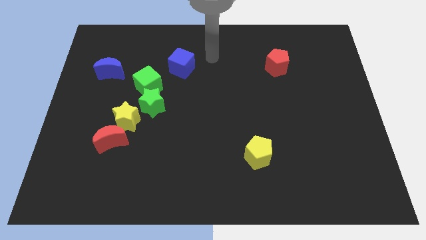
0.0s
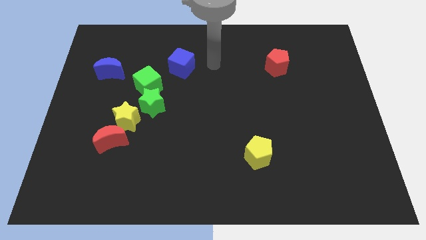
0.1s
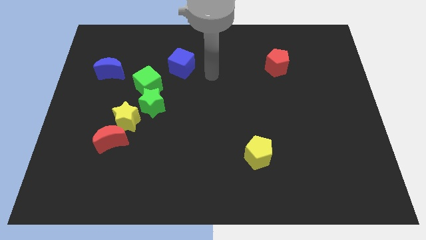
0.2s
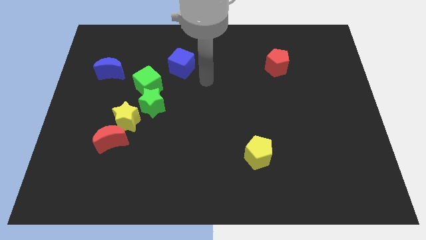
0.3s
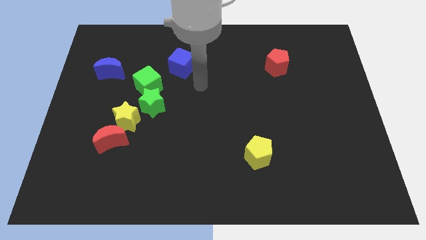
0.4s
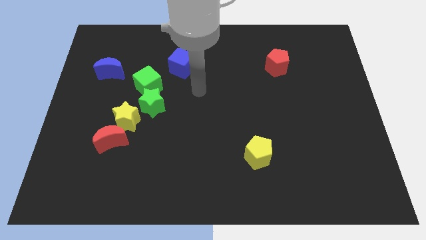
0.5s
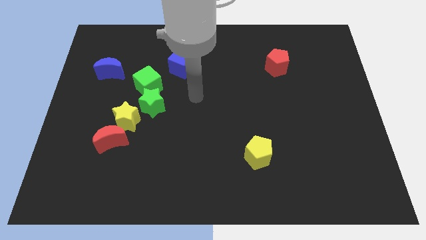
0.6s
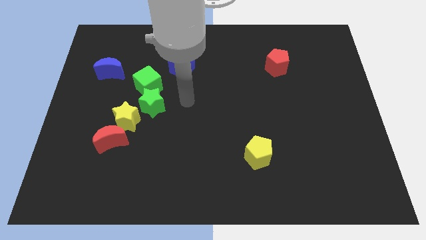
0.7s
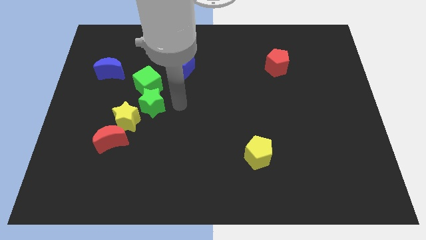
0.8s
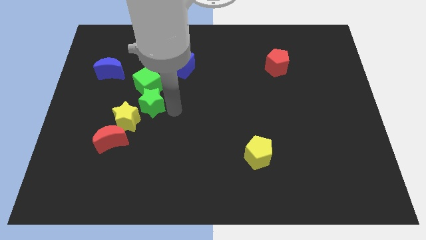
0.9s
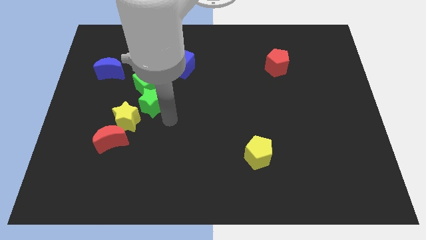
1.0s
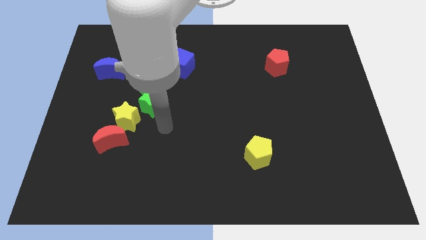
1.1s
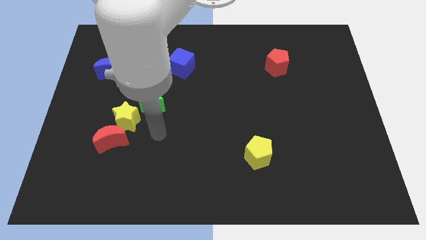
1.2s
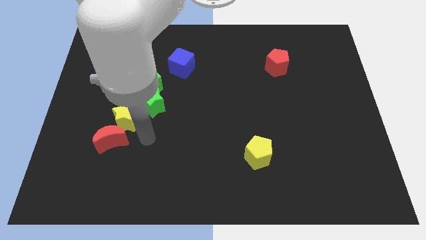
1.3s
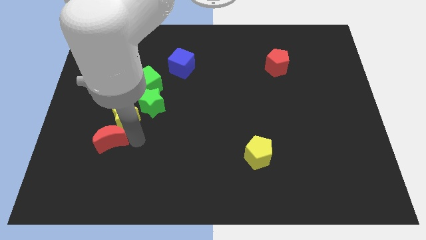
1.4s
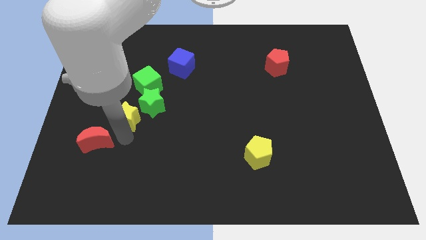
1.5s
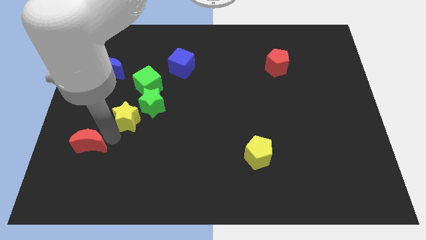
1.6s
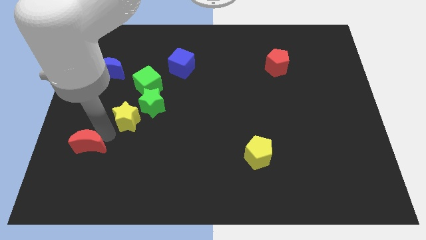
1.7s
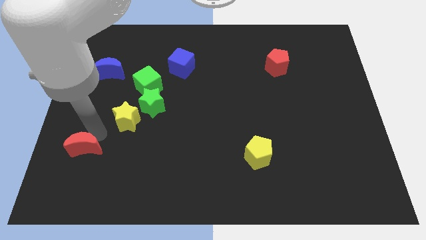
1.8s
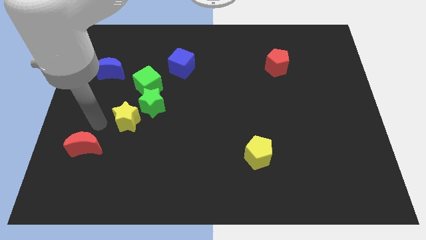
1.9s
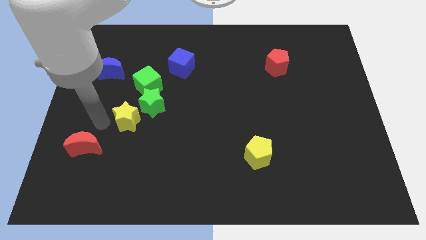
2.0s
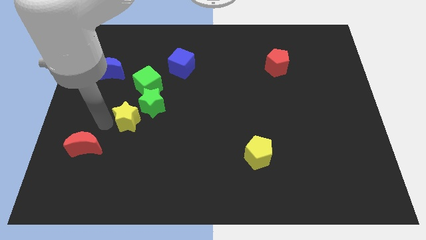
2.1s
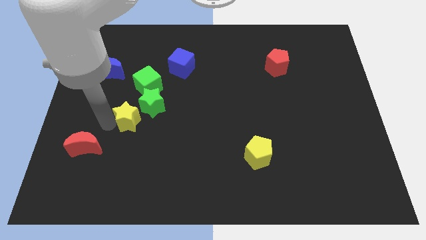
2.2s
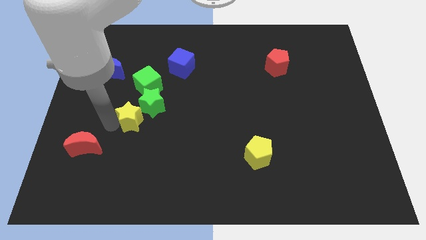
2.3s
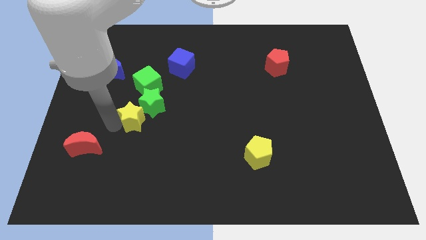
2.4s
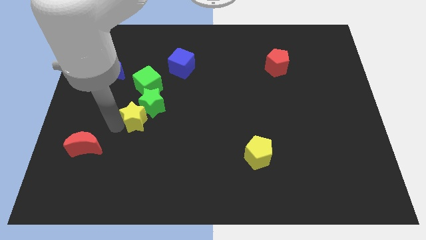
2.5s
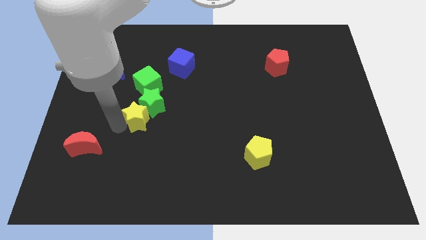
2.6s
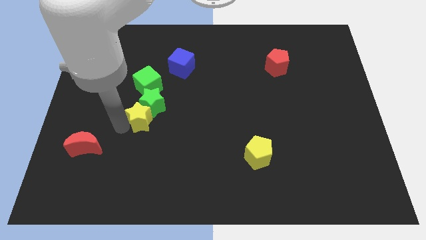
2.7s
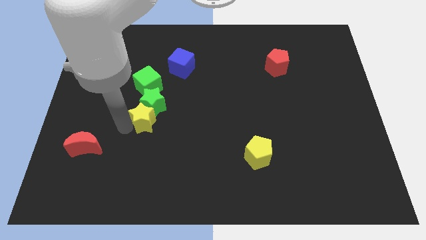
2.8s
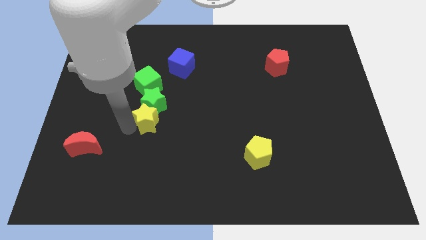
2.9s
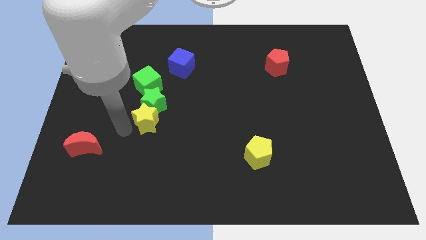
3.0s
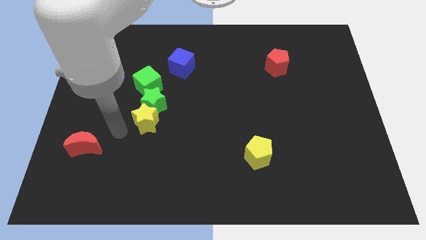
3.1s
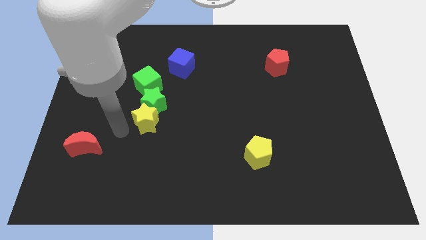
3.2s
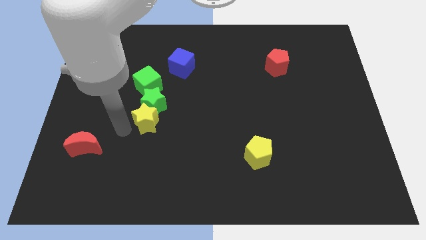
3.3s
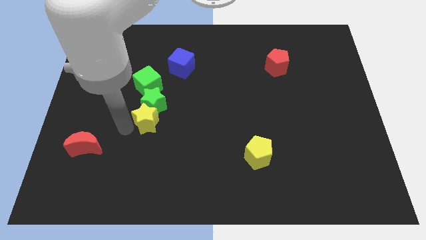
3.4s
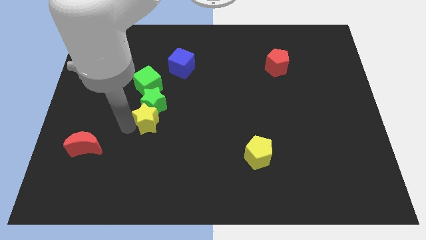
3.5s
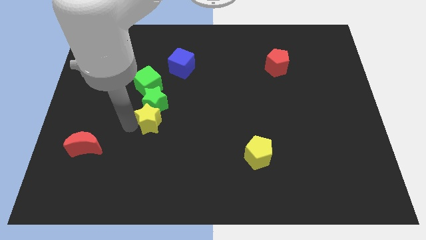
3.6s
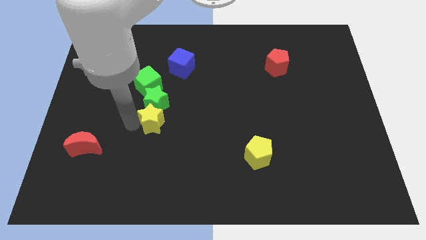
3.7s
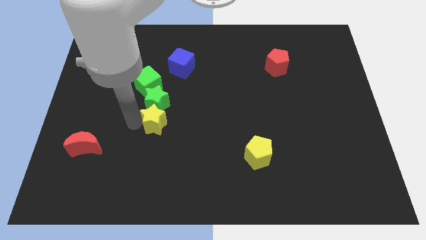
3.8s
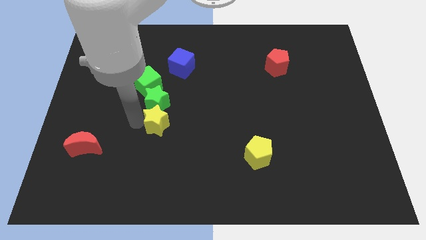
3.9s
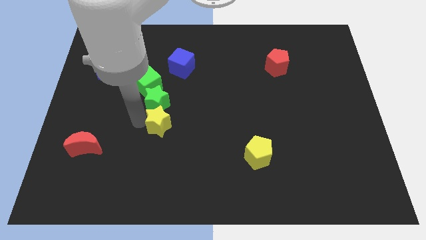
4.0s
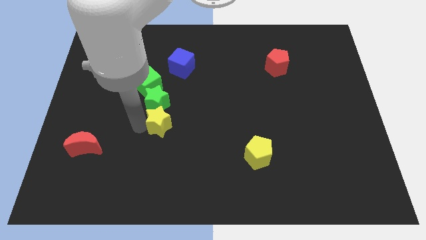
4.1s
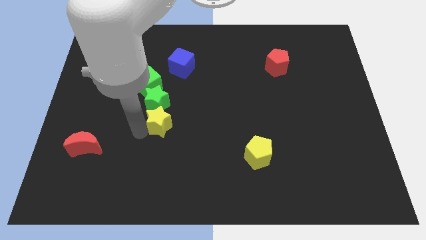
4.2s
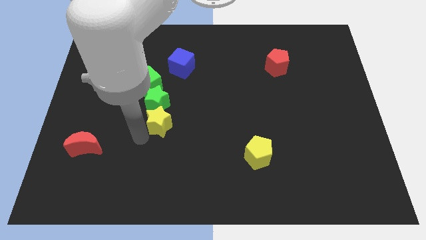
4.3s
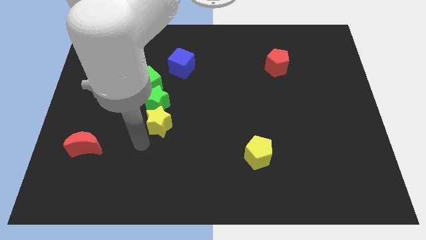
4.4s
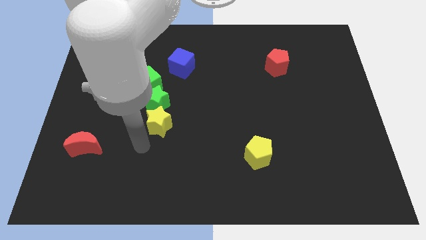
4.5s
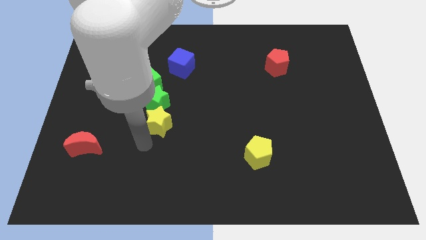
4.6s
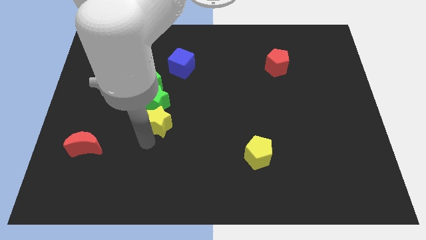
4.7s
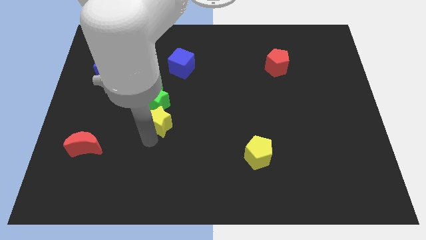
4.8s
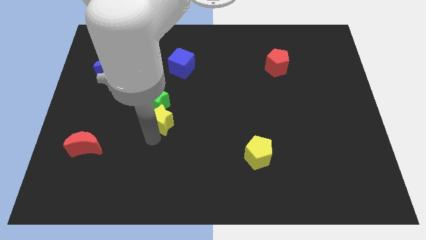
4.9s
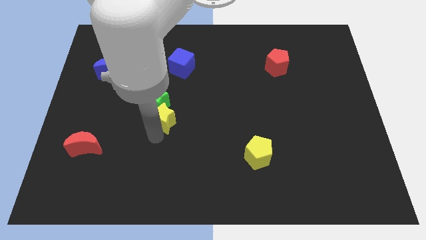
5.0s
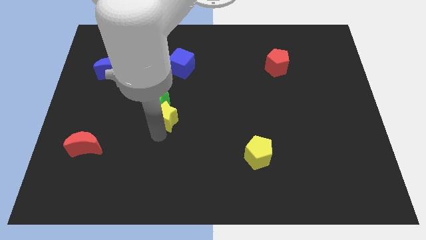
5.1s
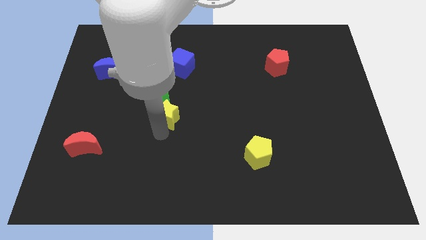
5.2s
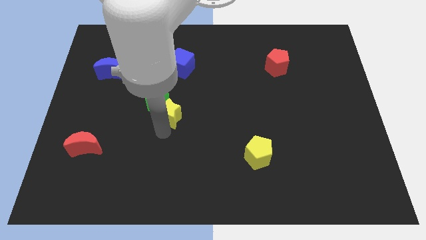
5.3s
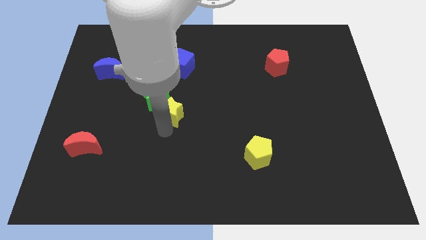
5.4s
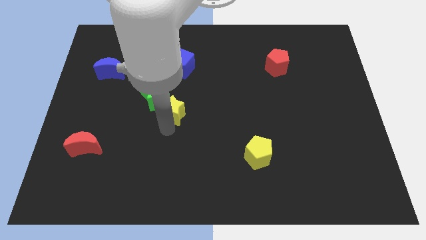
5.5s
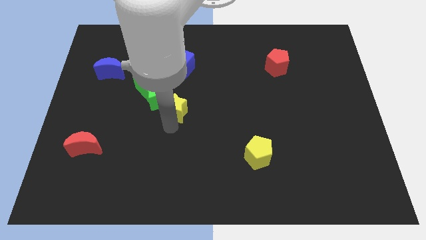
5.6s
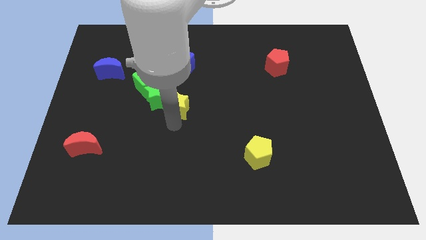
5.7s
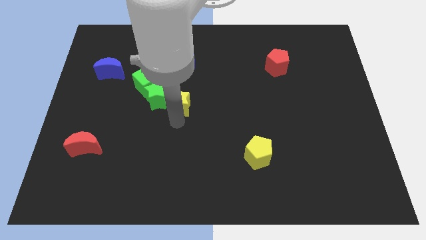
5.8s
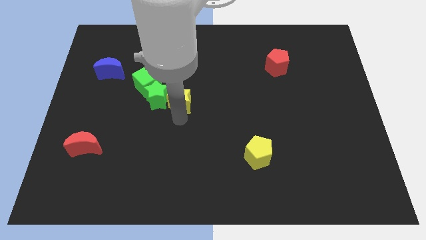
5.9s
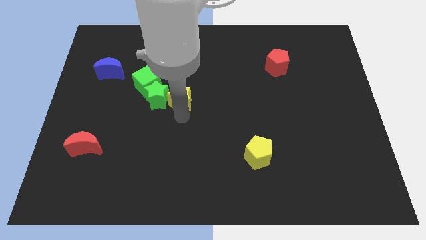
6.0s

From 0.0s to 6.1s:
push the yellow star to the top right of the green star

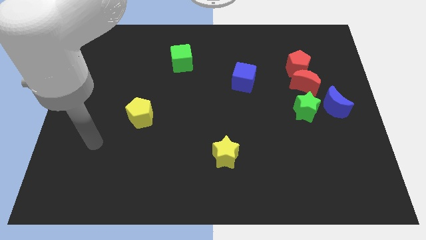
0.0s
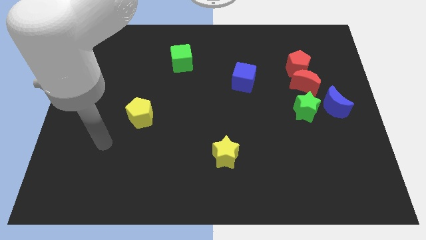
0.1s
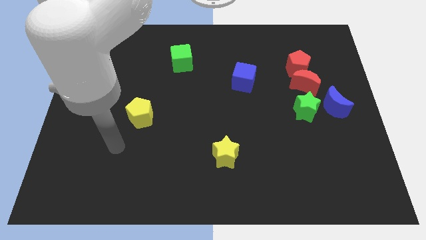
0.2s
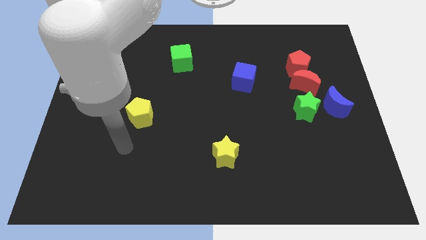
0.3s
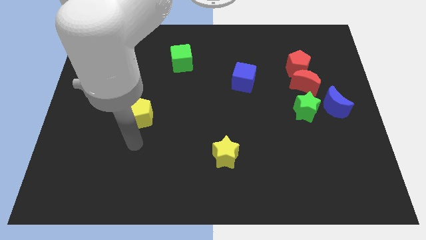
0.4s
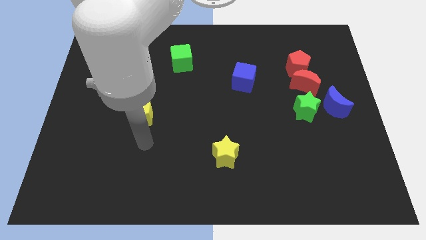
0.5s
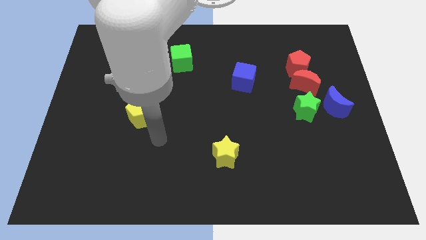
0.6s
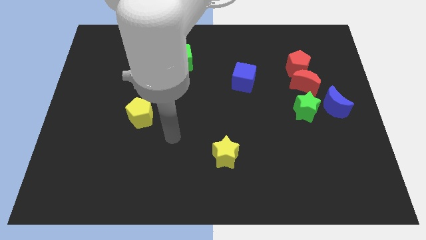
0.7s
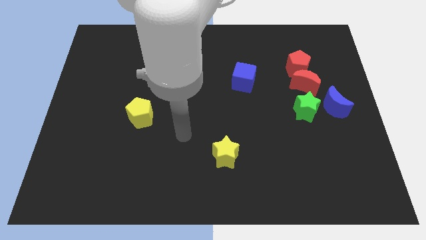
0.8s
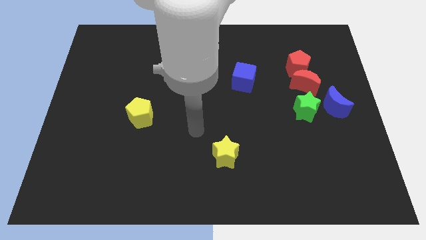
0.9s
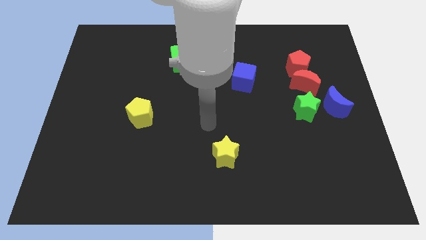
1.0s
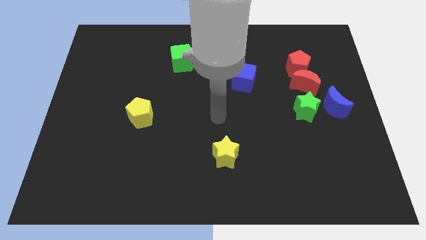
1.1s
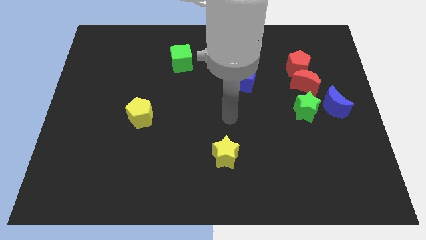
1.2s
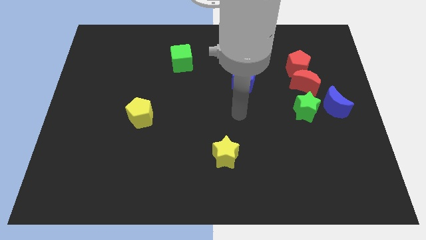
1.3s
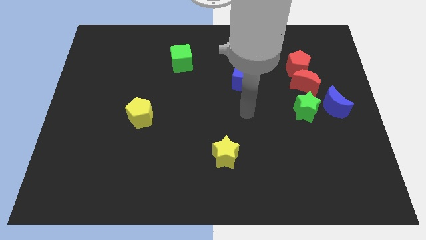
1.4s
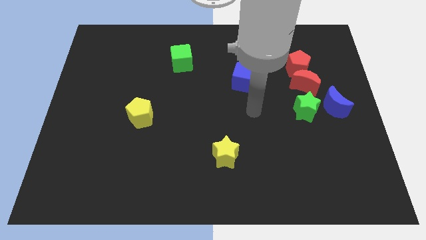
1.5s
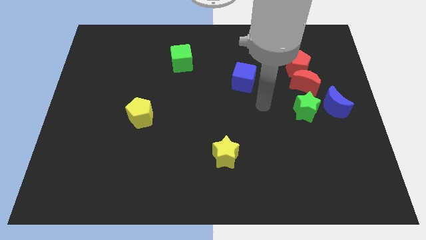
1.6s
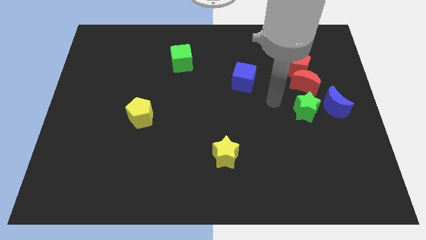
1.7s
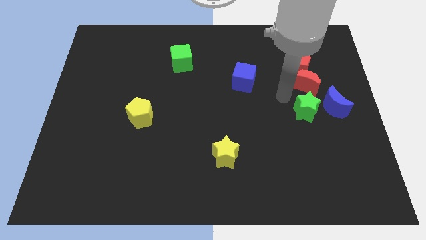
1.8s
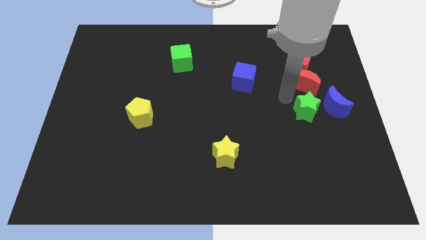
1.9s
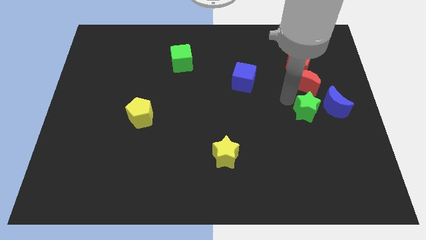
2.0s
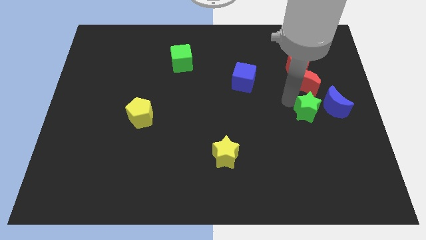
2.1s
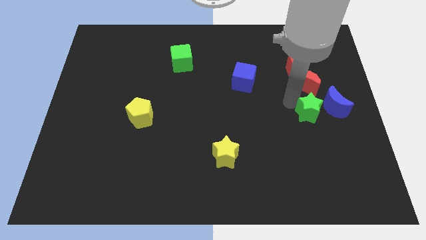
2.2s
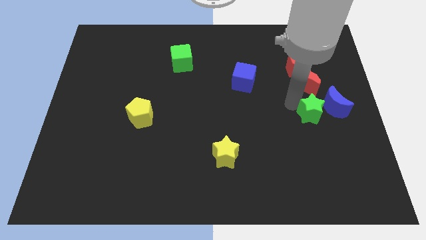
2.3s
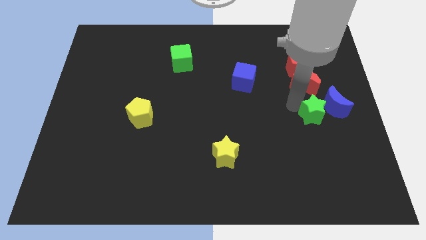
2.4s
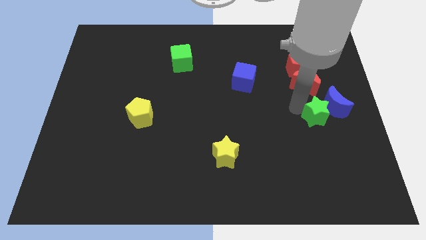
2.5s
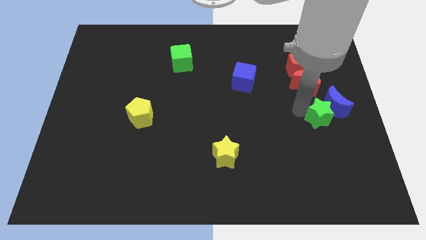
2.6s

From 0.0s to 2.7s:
push the green star to the bottom of the blue moon
